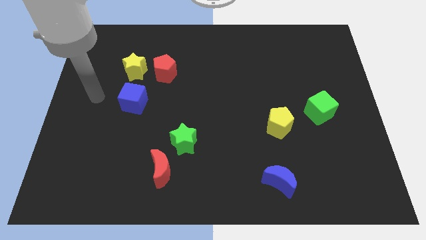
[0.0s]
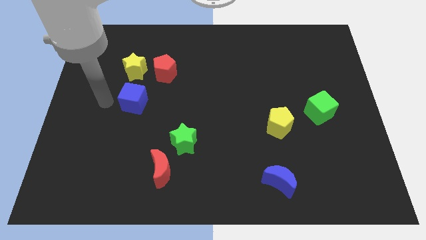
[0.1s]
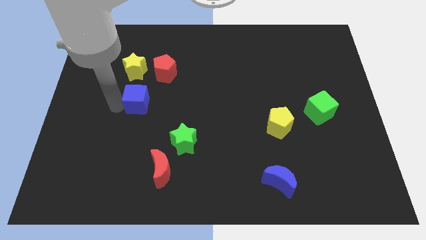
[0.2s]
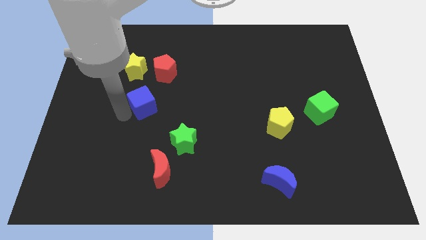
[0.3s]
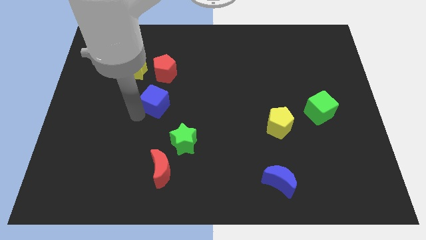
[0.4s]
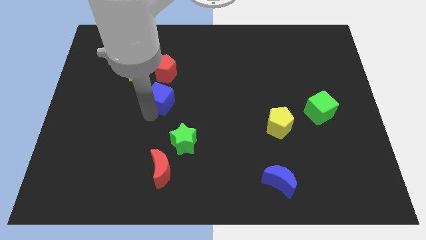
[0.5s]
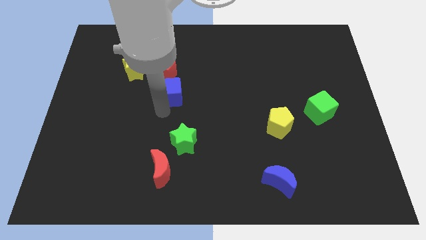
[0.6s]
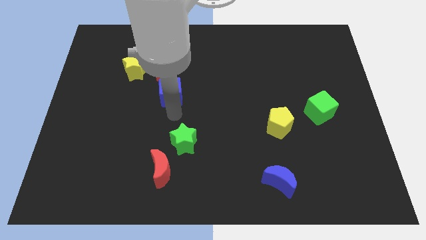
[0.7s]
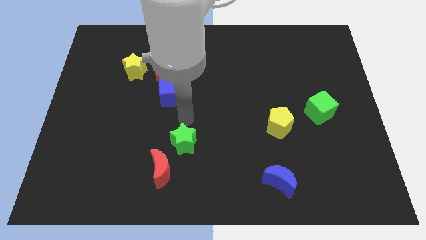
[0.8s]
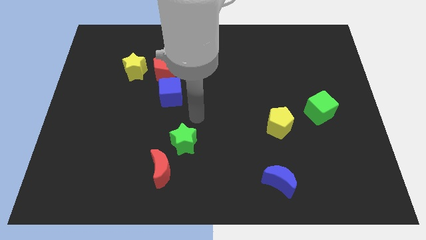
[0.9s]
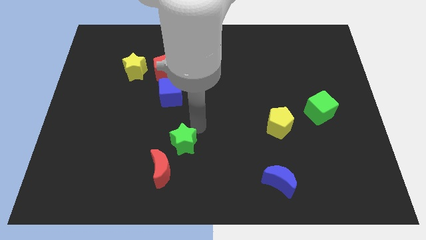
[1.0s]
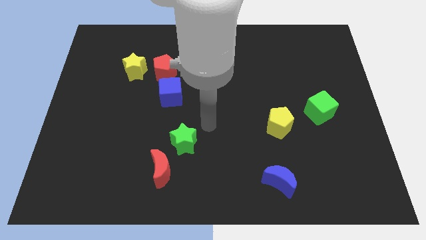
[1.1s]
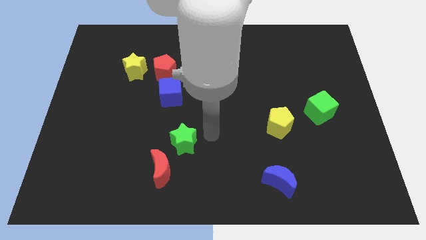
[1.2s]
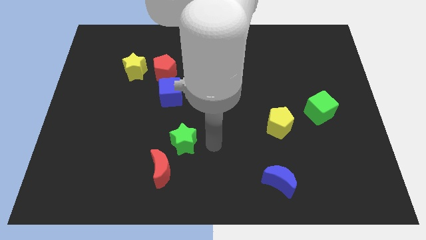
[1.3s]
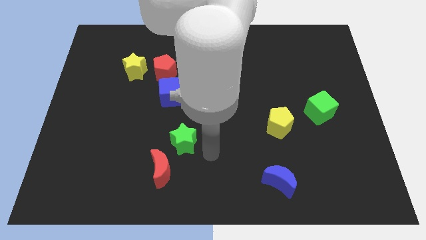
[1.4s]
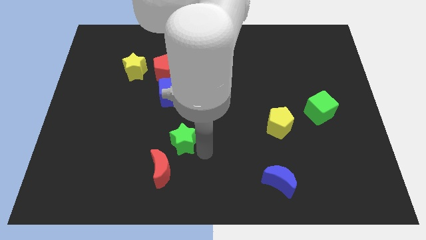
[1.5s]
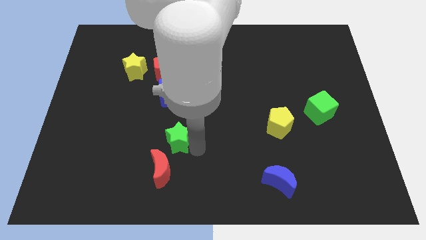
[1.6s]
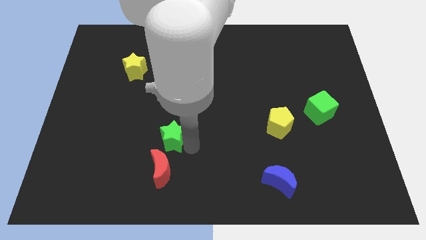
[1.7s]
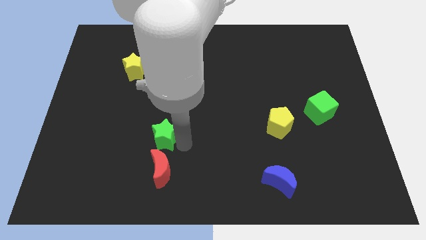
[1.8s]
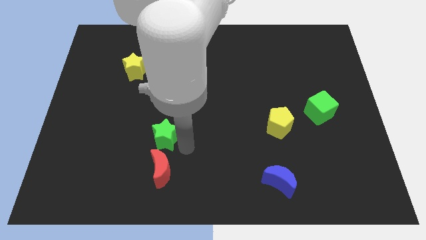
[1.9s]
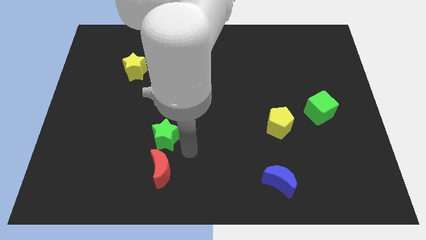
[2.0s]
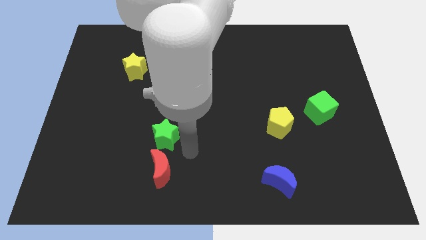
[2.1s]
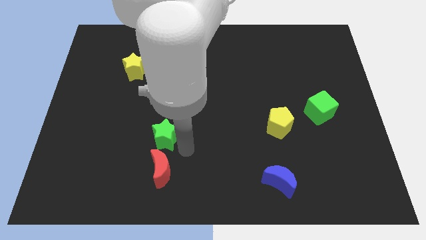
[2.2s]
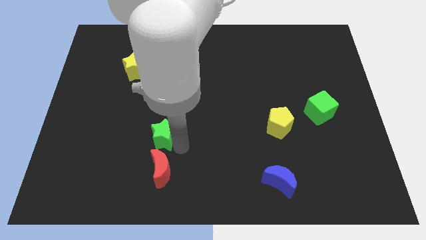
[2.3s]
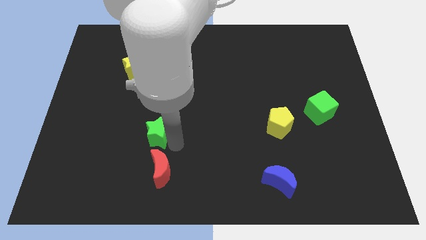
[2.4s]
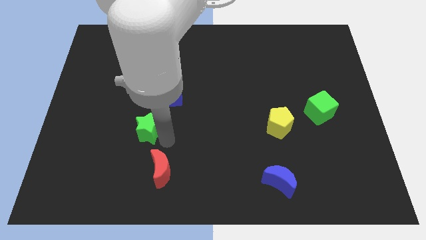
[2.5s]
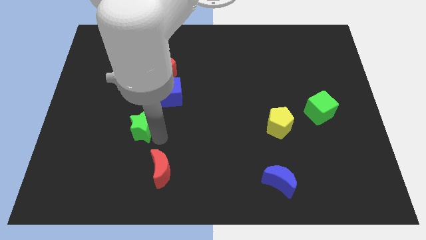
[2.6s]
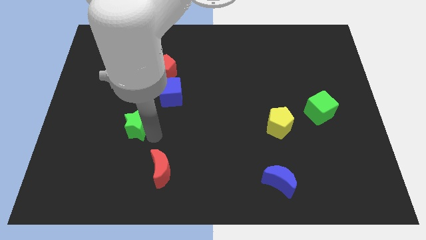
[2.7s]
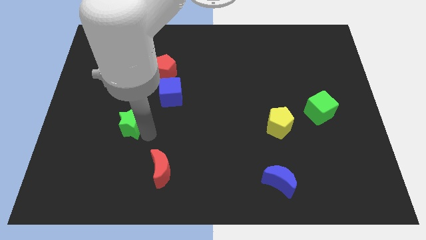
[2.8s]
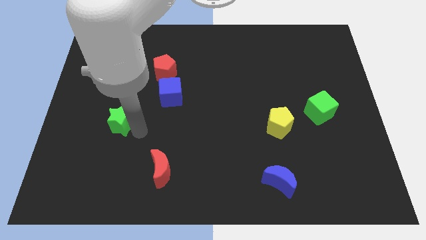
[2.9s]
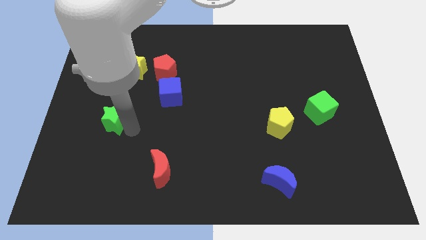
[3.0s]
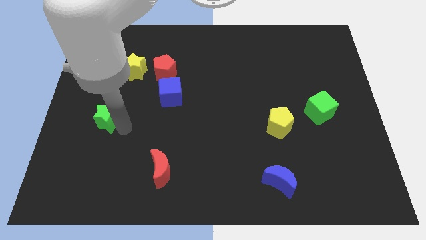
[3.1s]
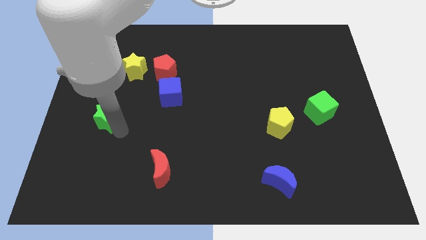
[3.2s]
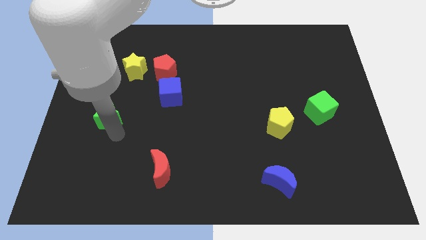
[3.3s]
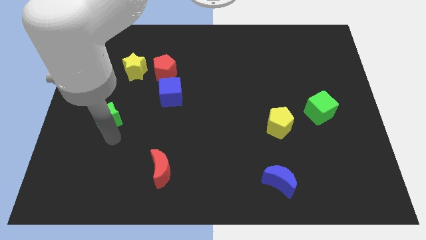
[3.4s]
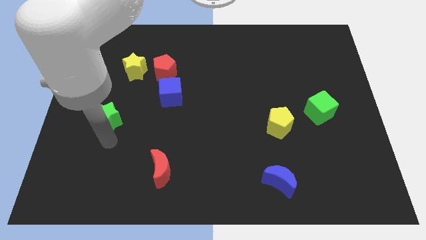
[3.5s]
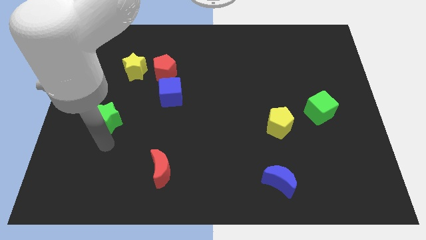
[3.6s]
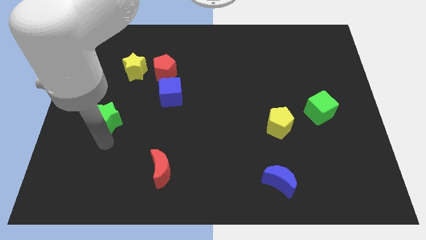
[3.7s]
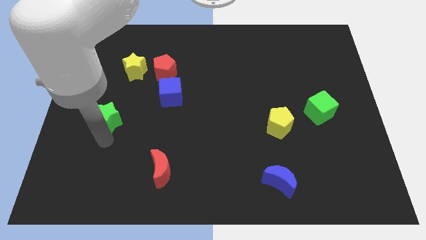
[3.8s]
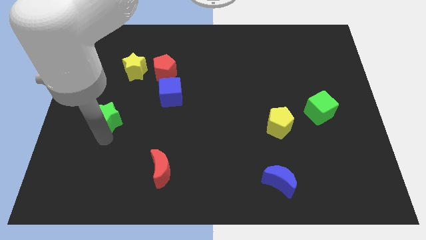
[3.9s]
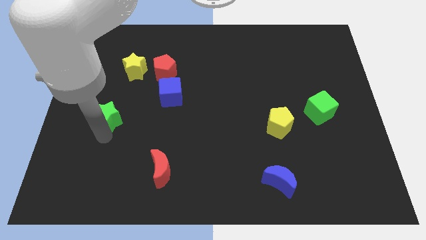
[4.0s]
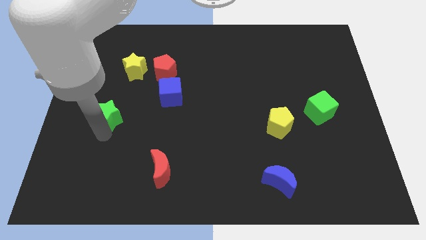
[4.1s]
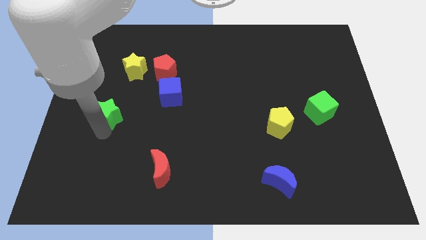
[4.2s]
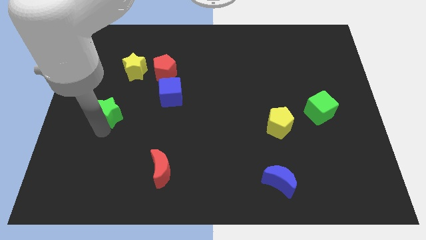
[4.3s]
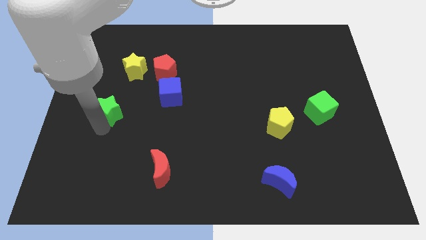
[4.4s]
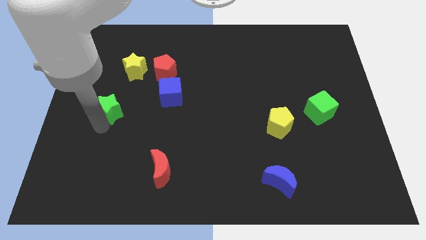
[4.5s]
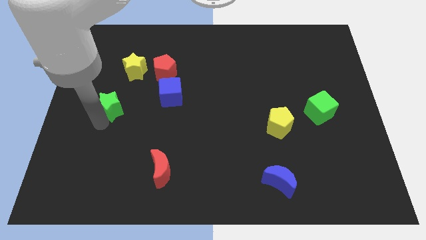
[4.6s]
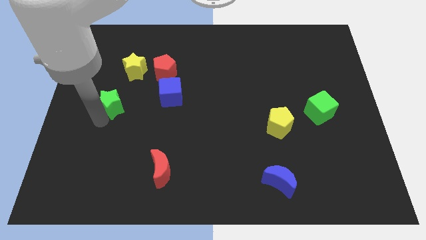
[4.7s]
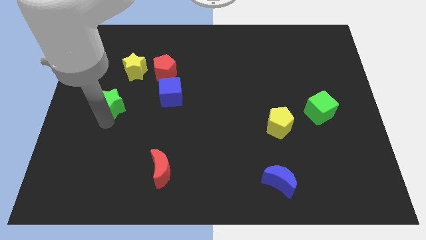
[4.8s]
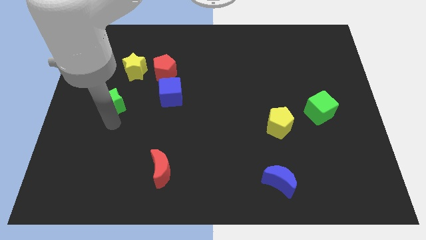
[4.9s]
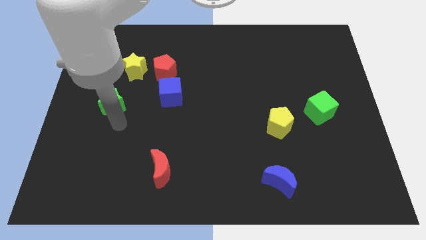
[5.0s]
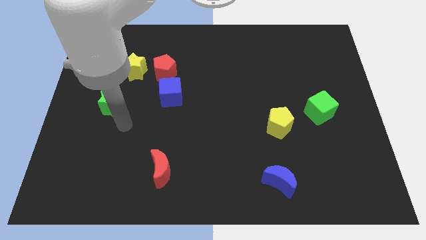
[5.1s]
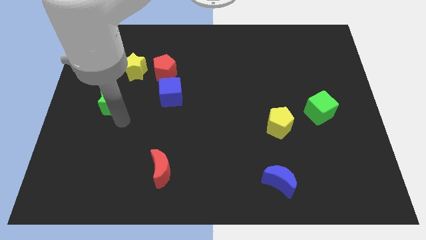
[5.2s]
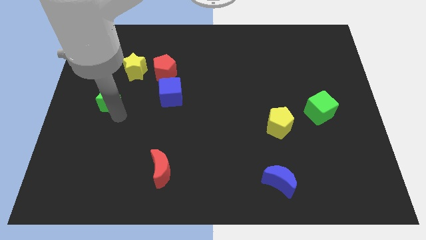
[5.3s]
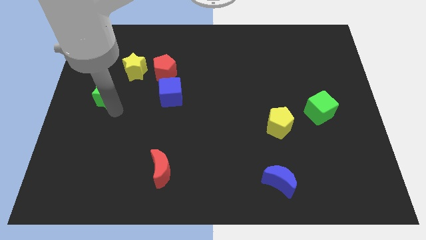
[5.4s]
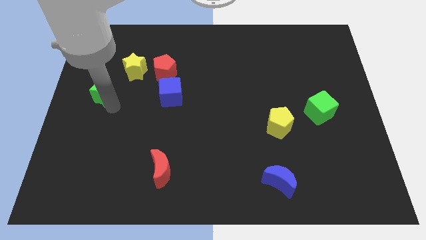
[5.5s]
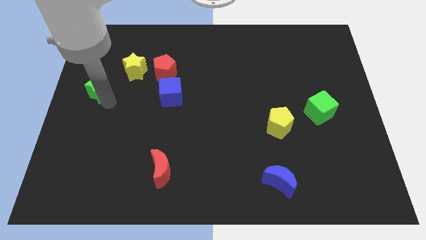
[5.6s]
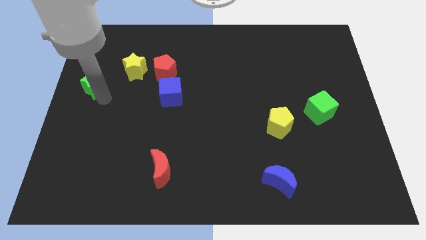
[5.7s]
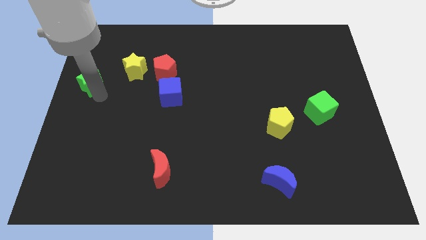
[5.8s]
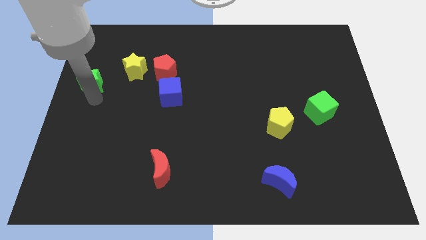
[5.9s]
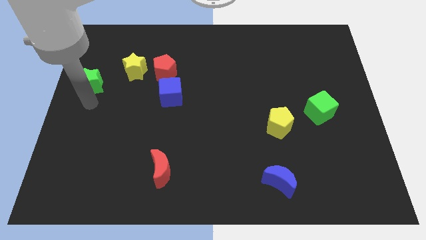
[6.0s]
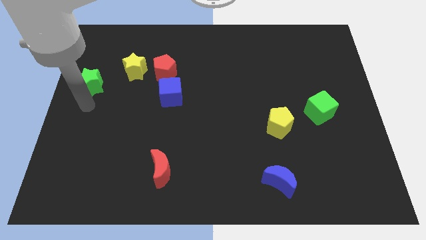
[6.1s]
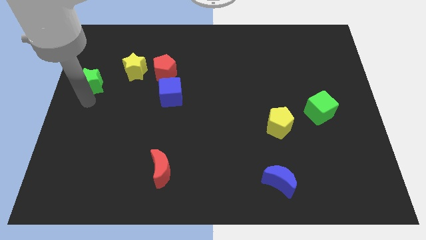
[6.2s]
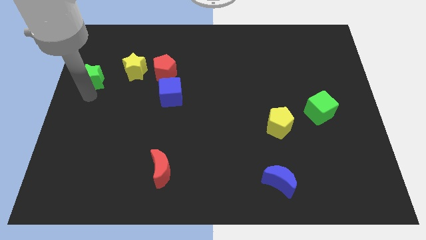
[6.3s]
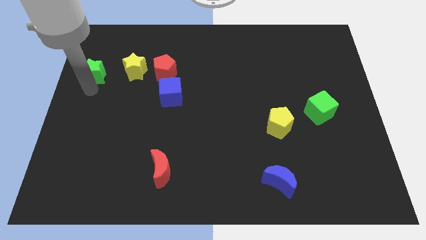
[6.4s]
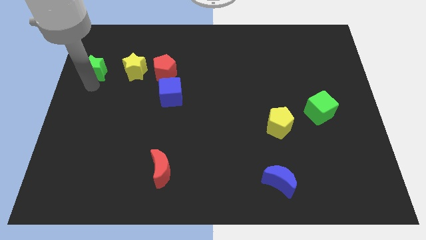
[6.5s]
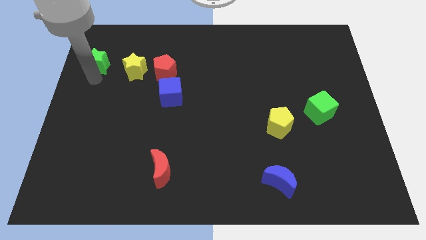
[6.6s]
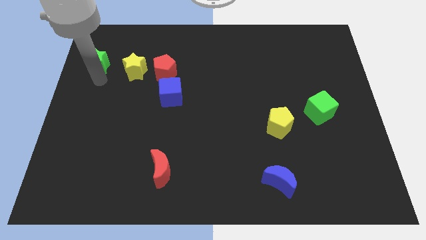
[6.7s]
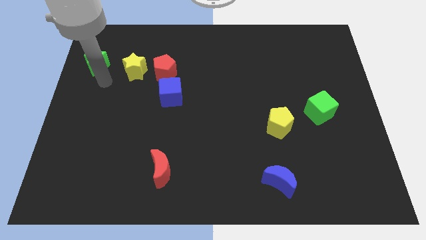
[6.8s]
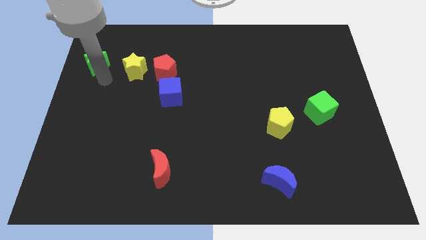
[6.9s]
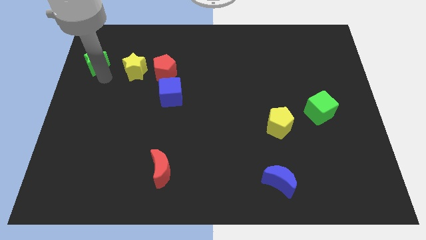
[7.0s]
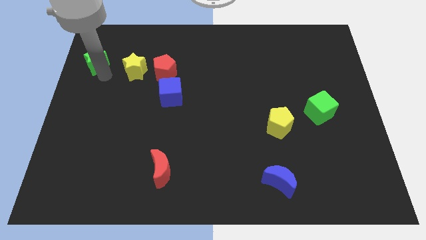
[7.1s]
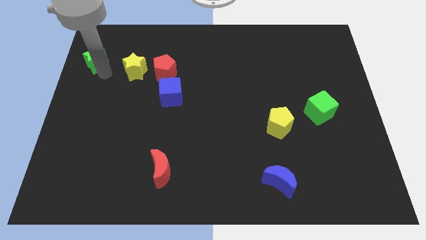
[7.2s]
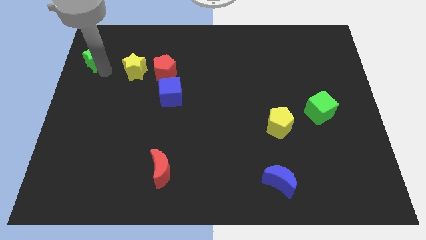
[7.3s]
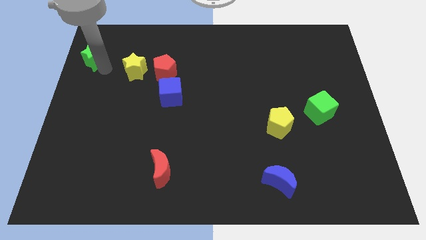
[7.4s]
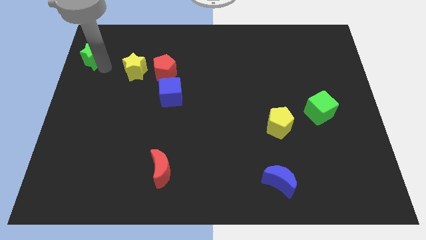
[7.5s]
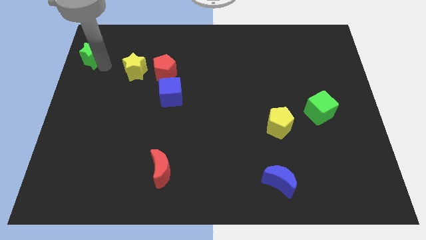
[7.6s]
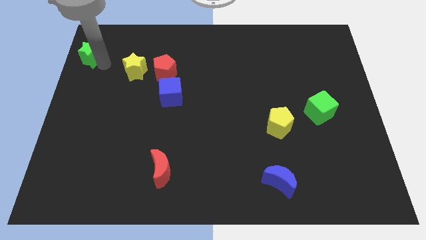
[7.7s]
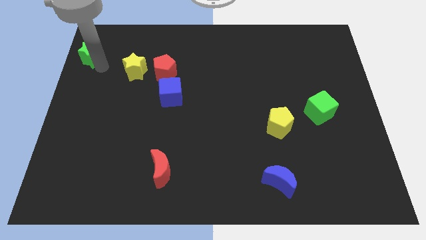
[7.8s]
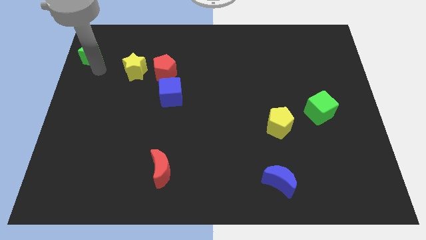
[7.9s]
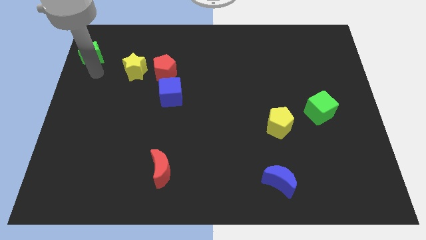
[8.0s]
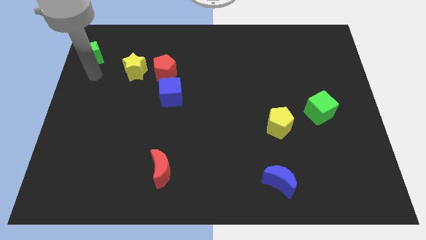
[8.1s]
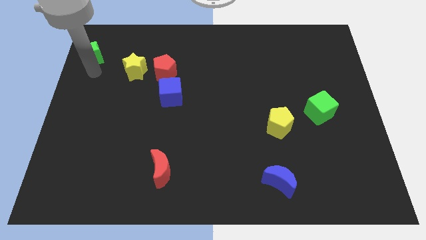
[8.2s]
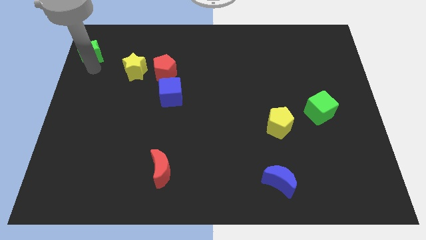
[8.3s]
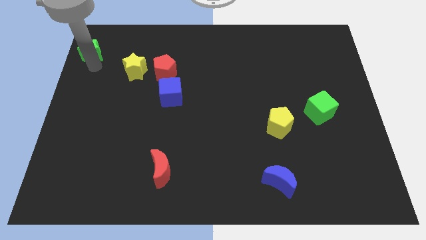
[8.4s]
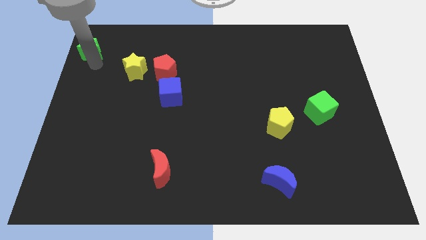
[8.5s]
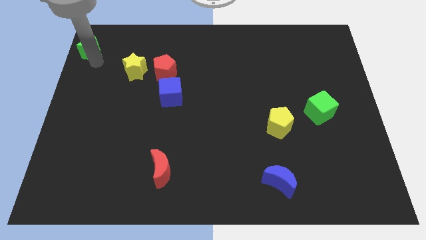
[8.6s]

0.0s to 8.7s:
push the green star to the upper left corner
